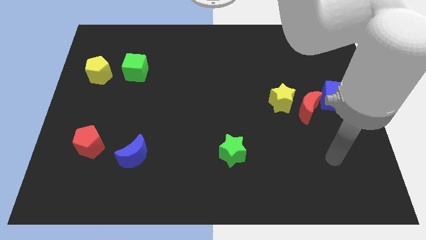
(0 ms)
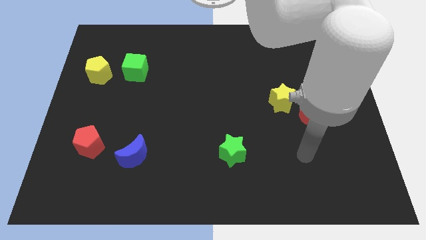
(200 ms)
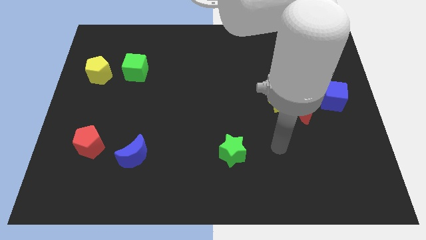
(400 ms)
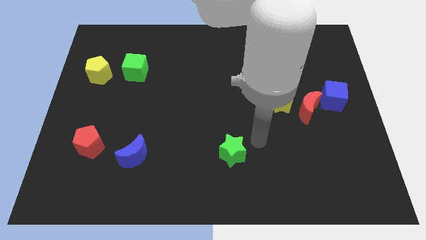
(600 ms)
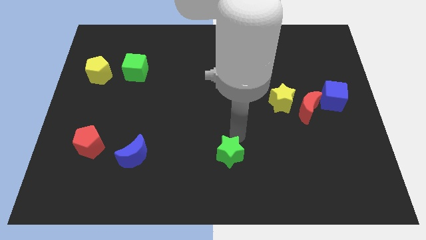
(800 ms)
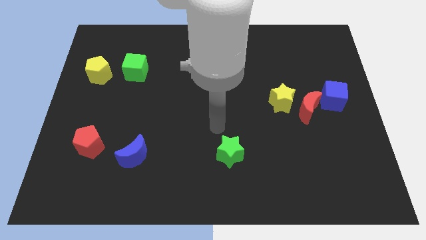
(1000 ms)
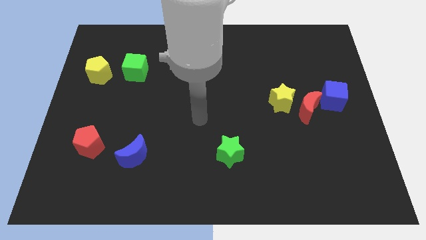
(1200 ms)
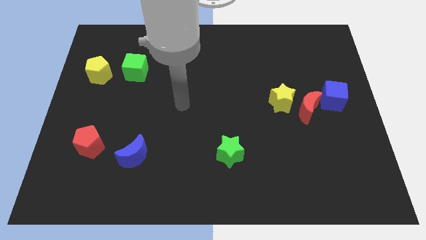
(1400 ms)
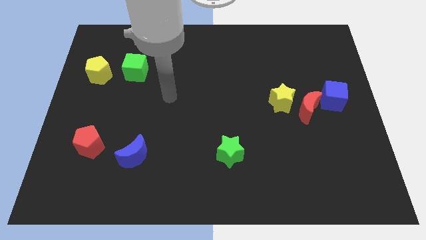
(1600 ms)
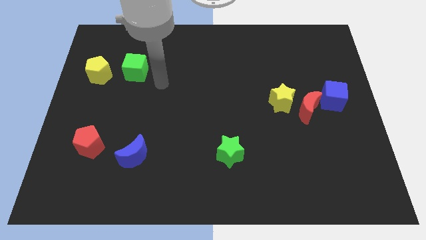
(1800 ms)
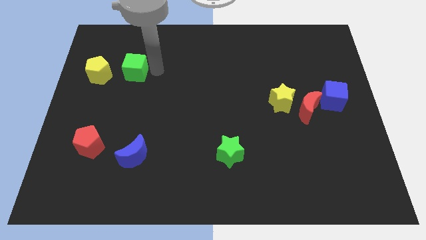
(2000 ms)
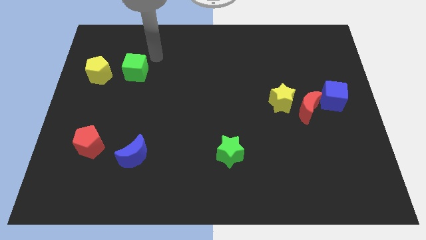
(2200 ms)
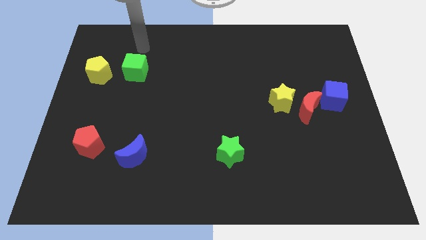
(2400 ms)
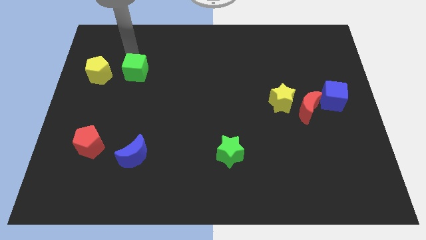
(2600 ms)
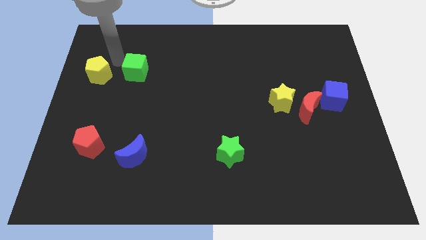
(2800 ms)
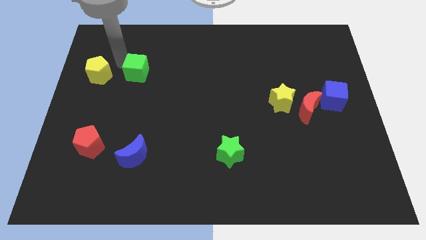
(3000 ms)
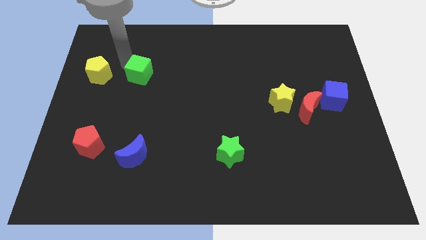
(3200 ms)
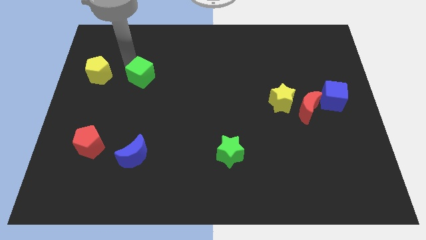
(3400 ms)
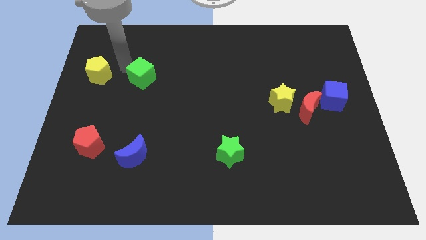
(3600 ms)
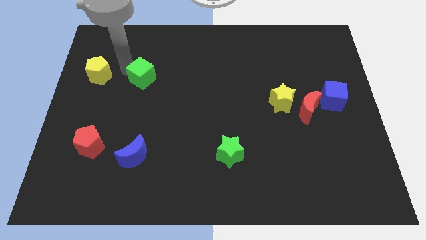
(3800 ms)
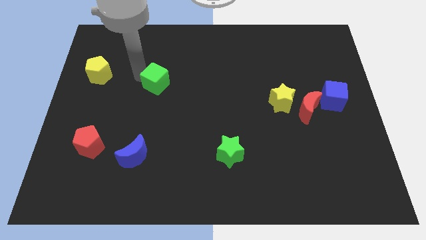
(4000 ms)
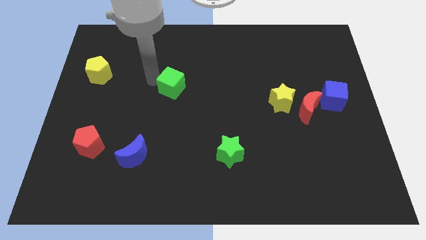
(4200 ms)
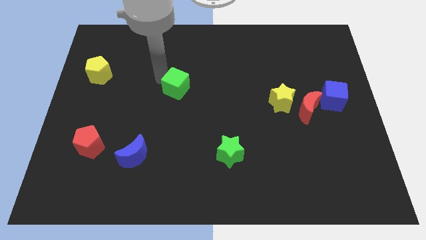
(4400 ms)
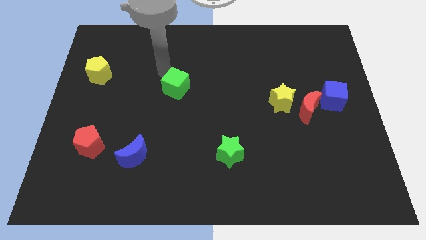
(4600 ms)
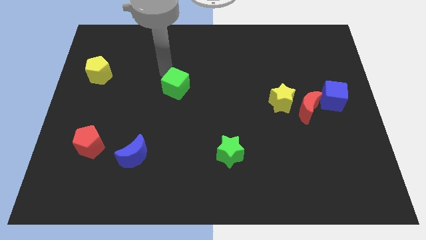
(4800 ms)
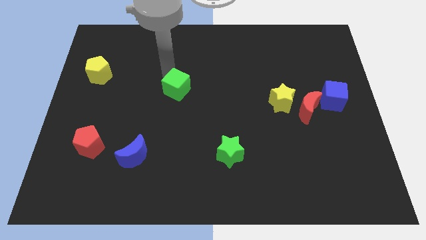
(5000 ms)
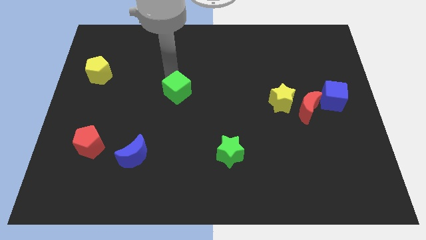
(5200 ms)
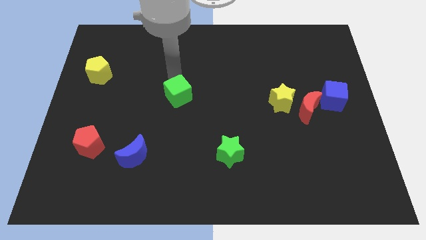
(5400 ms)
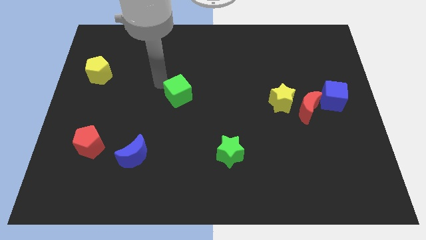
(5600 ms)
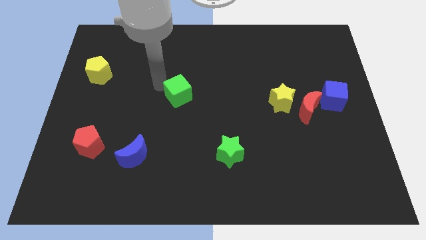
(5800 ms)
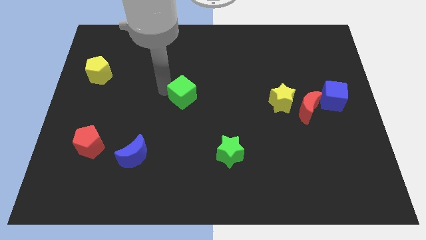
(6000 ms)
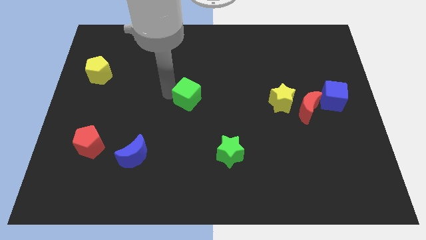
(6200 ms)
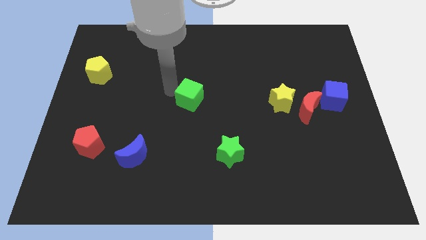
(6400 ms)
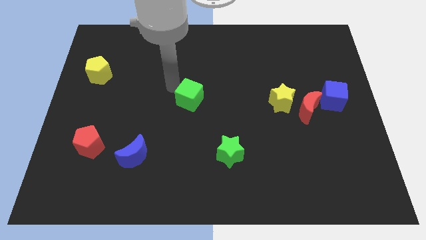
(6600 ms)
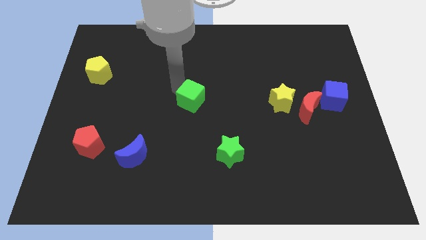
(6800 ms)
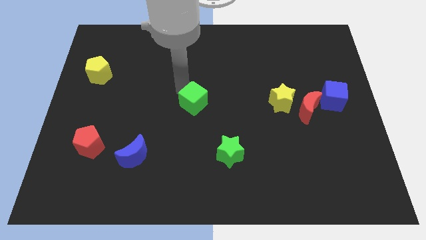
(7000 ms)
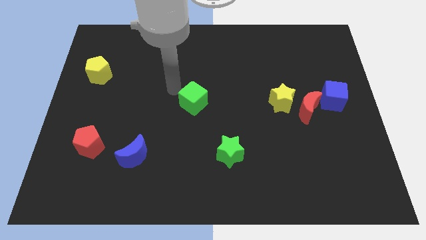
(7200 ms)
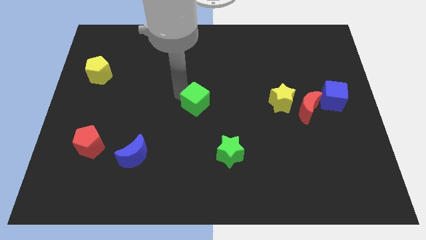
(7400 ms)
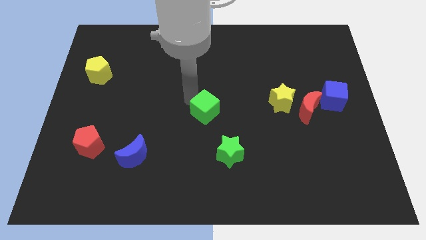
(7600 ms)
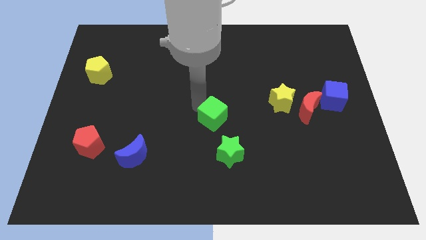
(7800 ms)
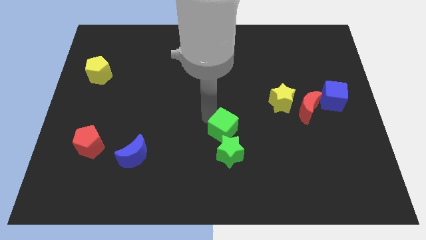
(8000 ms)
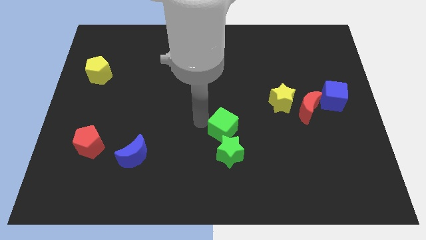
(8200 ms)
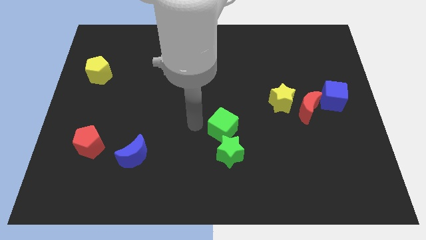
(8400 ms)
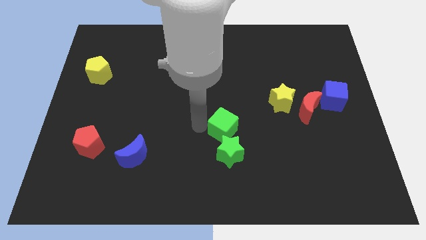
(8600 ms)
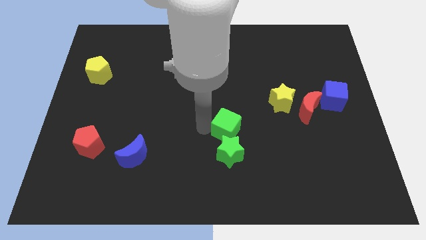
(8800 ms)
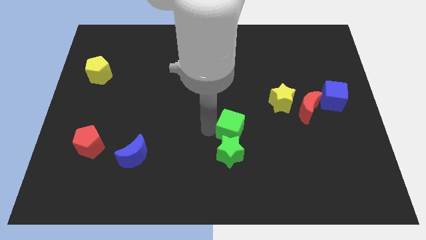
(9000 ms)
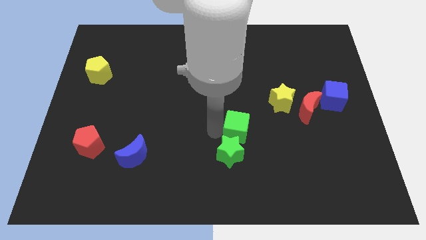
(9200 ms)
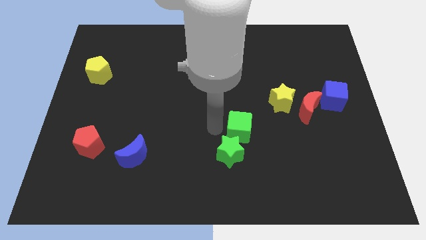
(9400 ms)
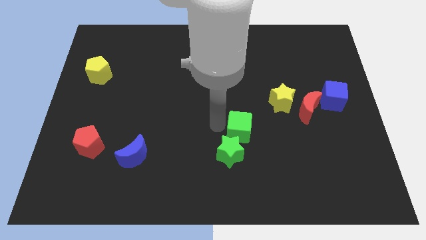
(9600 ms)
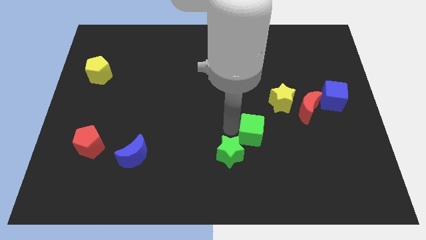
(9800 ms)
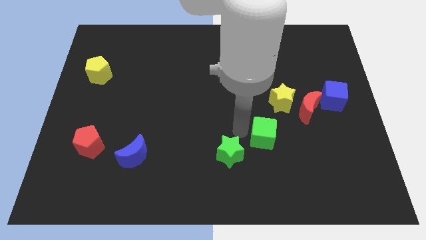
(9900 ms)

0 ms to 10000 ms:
push the green cube below the yellow star

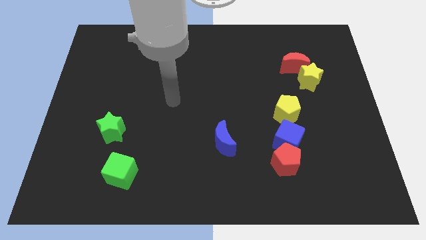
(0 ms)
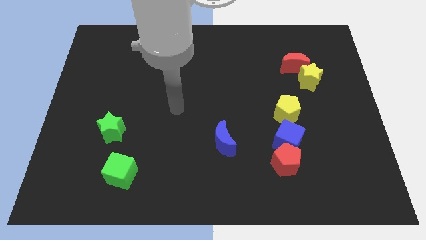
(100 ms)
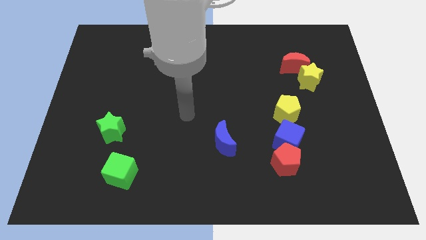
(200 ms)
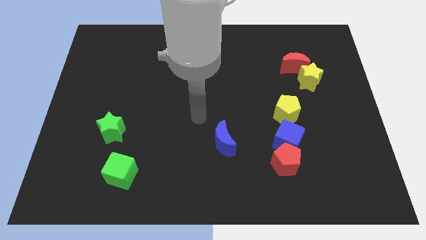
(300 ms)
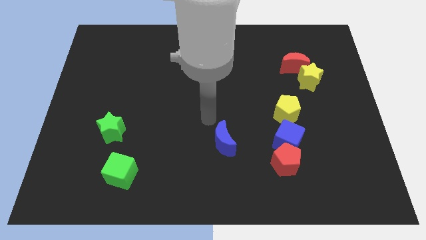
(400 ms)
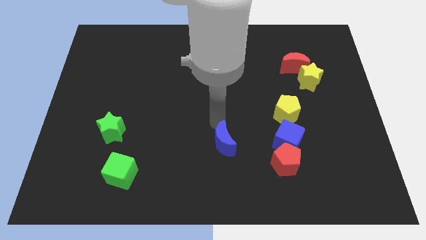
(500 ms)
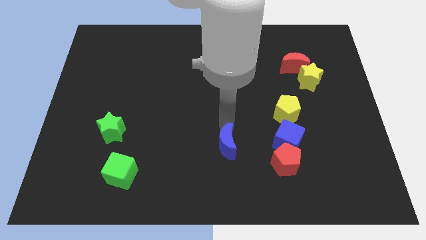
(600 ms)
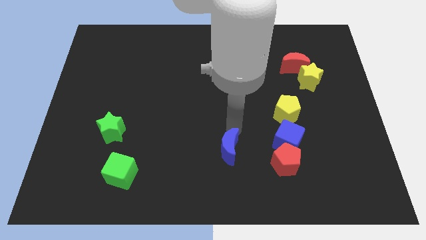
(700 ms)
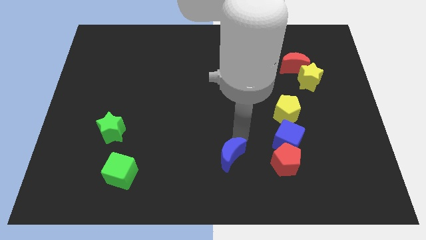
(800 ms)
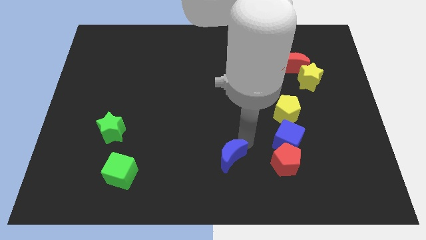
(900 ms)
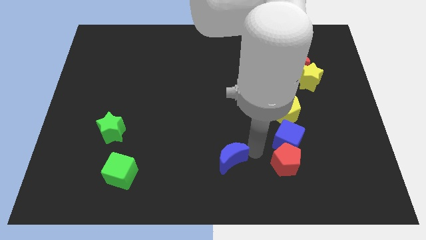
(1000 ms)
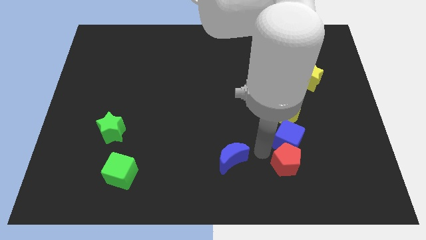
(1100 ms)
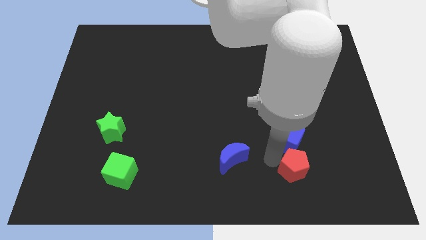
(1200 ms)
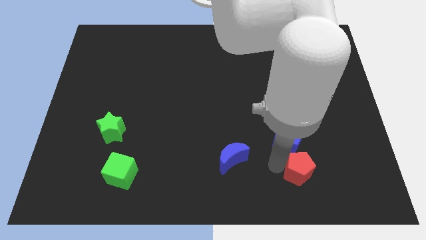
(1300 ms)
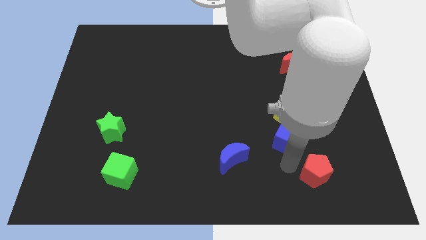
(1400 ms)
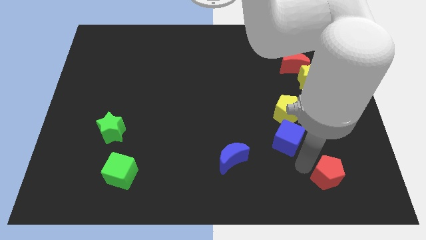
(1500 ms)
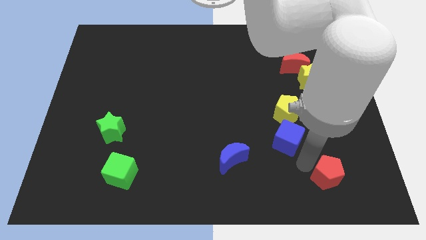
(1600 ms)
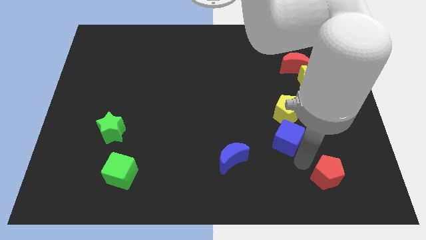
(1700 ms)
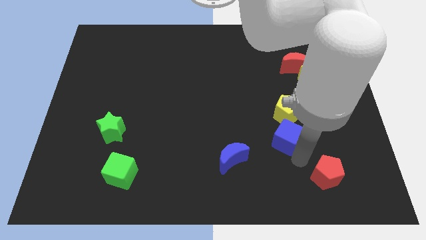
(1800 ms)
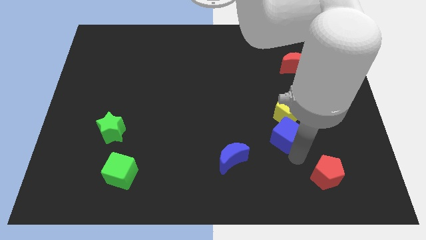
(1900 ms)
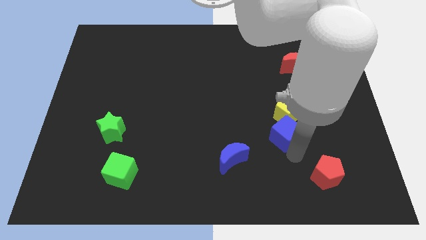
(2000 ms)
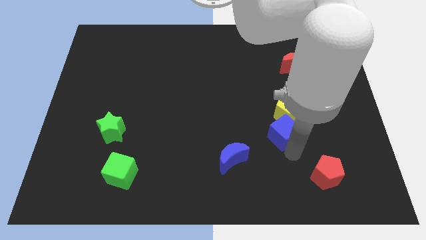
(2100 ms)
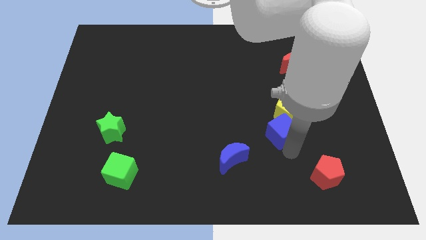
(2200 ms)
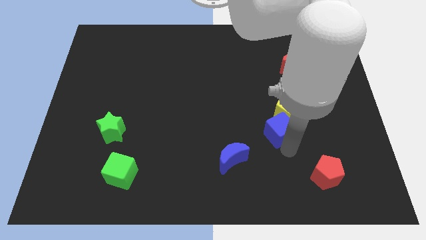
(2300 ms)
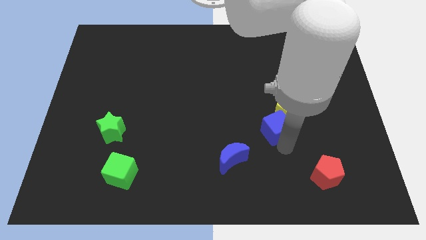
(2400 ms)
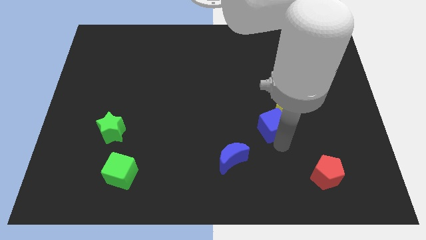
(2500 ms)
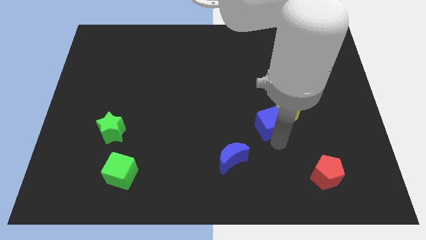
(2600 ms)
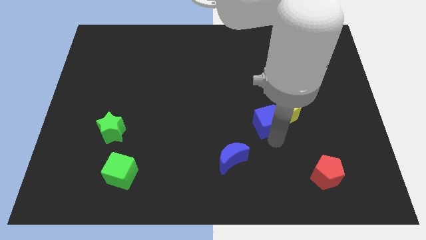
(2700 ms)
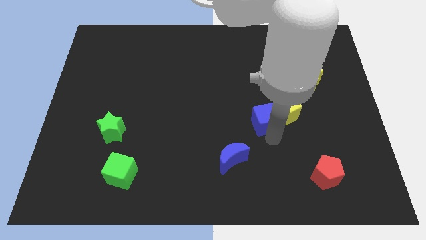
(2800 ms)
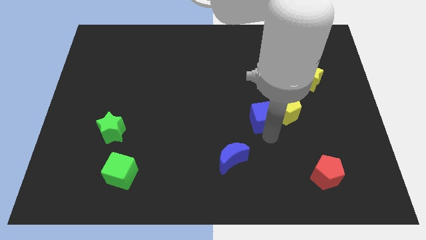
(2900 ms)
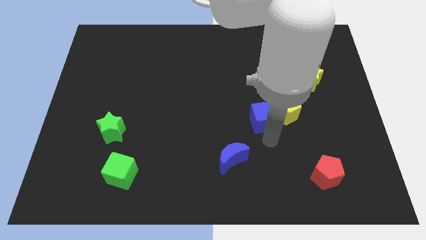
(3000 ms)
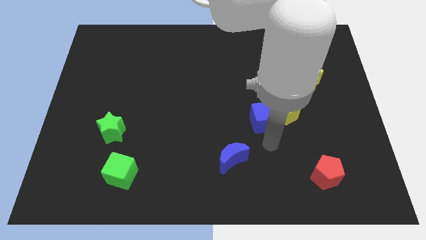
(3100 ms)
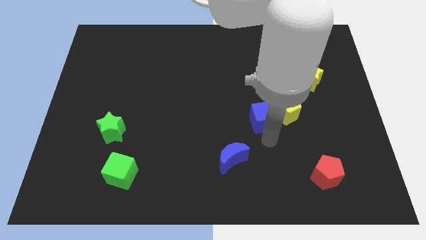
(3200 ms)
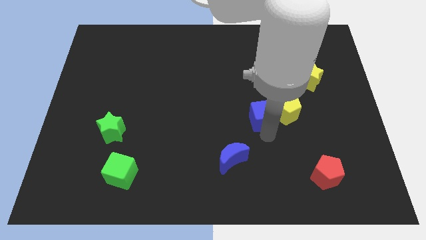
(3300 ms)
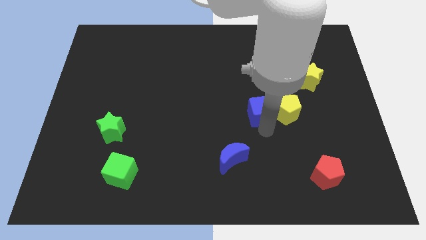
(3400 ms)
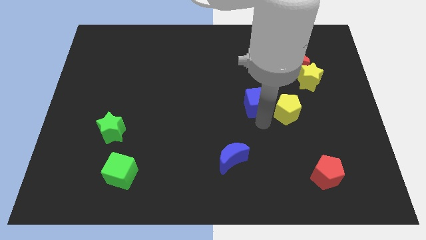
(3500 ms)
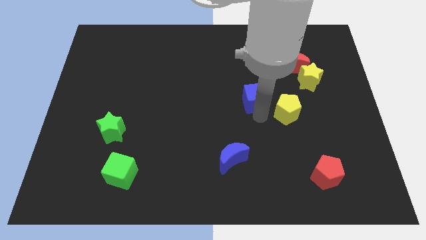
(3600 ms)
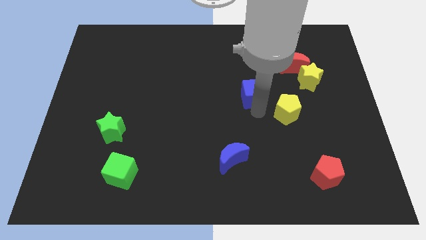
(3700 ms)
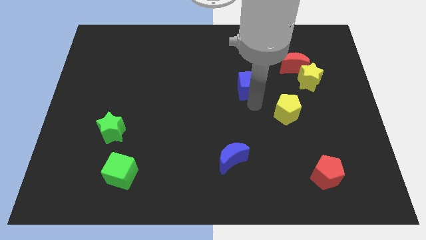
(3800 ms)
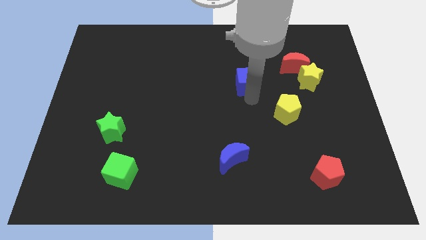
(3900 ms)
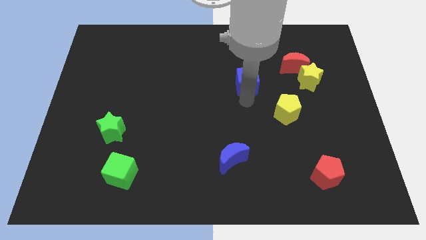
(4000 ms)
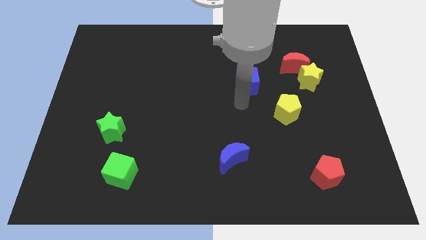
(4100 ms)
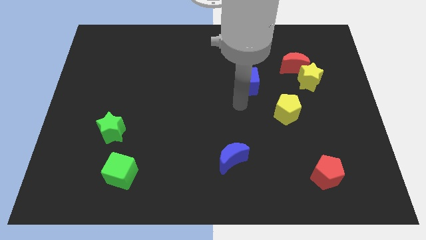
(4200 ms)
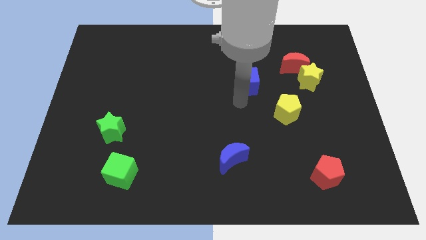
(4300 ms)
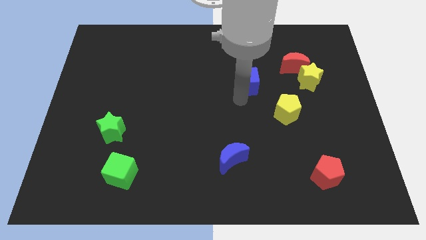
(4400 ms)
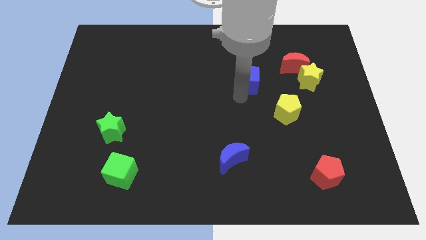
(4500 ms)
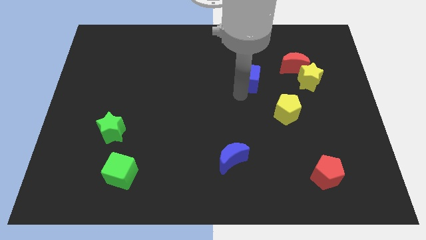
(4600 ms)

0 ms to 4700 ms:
slide the blue cube left of the red moon
